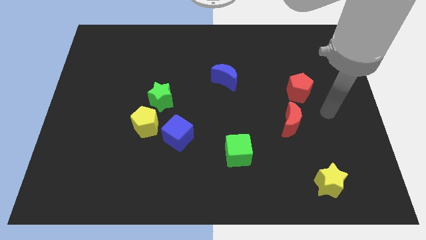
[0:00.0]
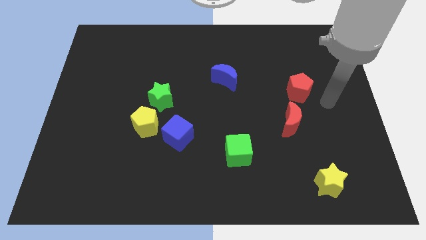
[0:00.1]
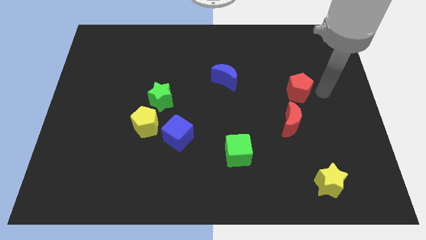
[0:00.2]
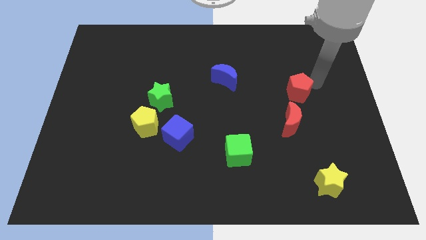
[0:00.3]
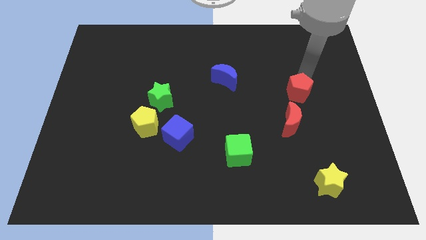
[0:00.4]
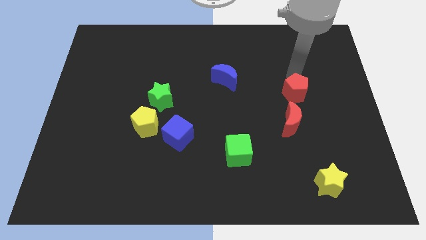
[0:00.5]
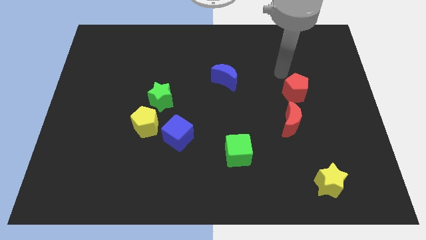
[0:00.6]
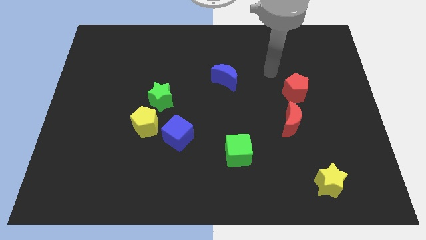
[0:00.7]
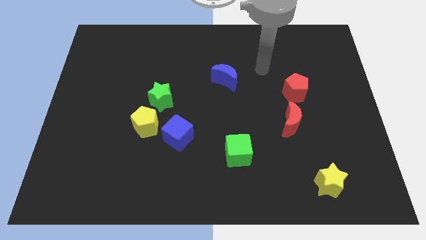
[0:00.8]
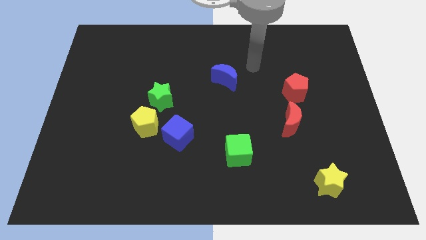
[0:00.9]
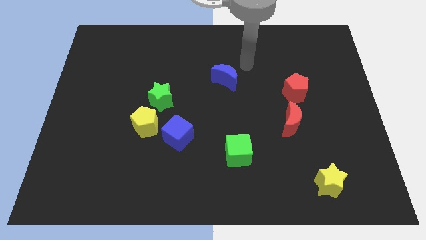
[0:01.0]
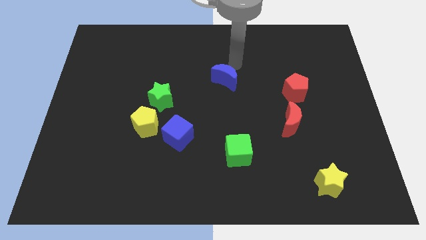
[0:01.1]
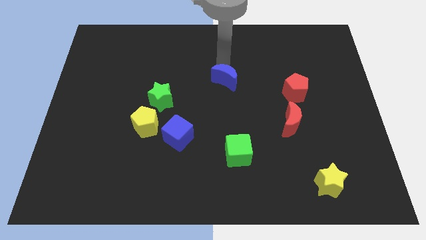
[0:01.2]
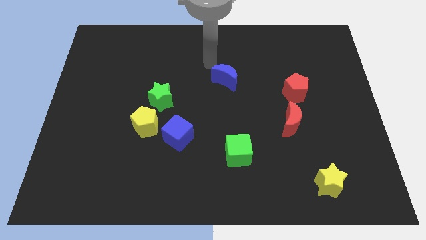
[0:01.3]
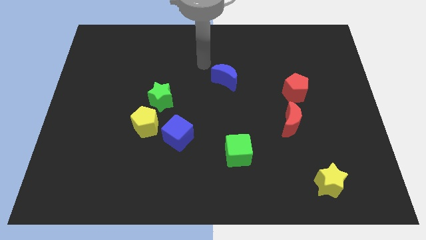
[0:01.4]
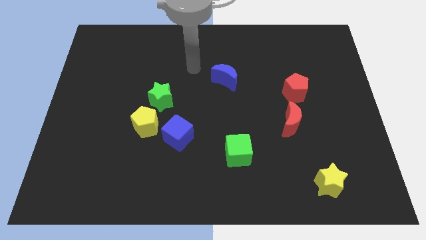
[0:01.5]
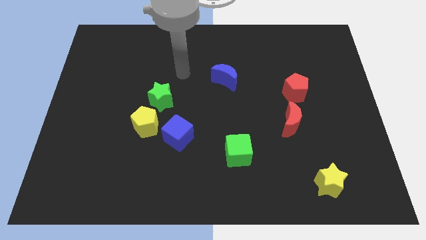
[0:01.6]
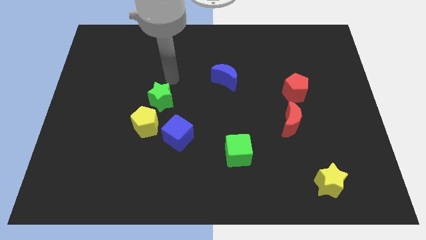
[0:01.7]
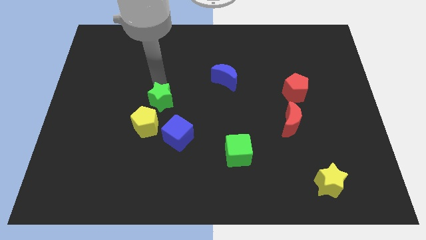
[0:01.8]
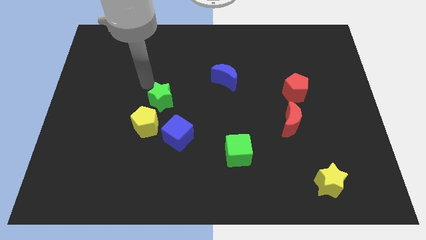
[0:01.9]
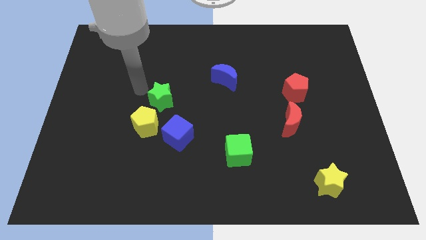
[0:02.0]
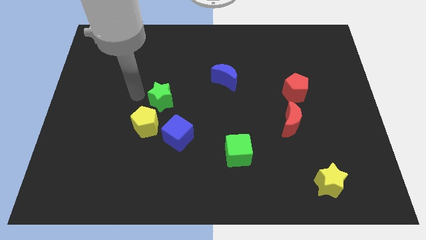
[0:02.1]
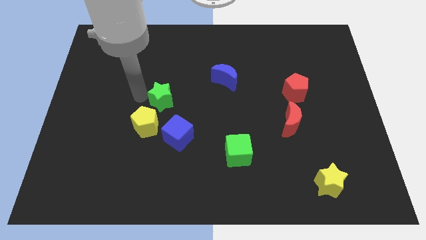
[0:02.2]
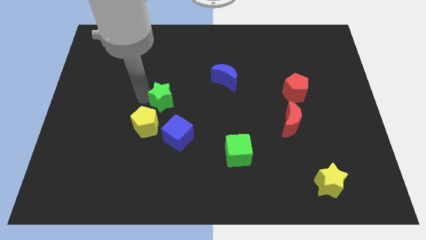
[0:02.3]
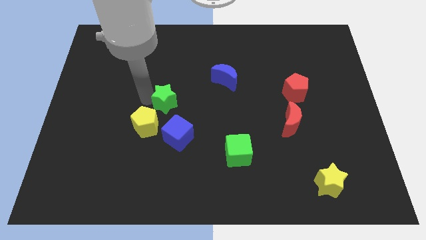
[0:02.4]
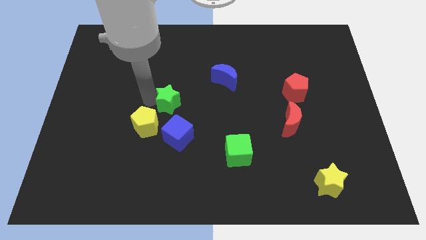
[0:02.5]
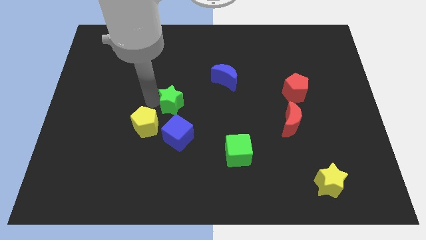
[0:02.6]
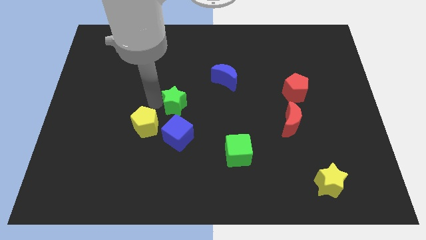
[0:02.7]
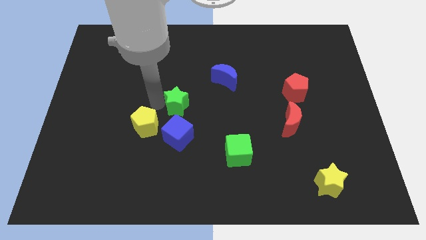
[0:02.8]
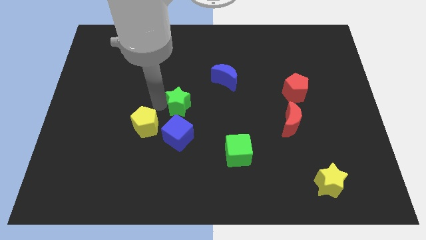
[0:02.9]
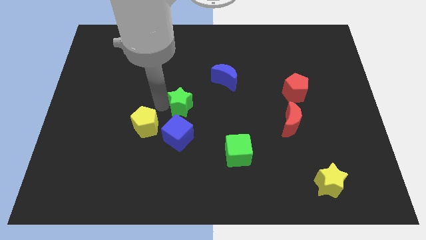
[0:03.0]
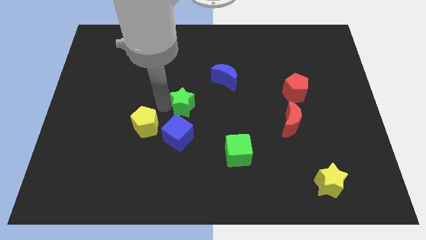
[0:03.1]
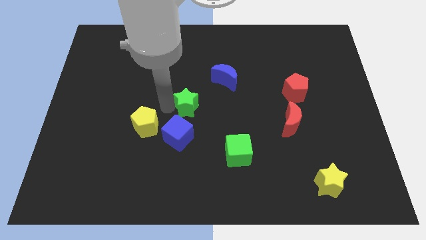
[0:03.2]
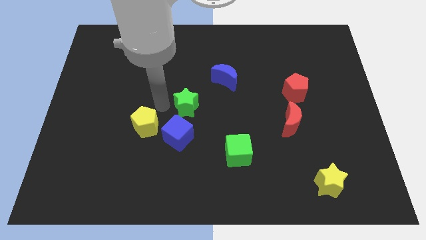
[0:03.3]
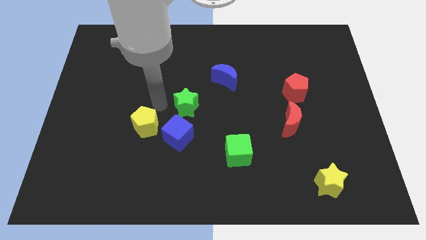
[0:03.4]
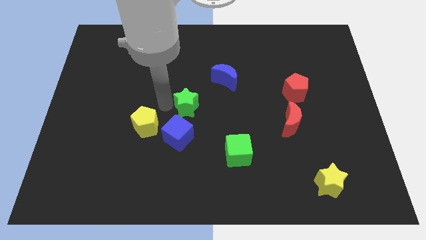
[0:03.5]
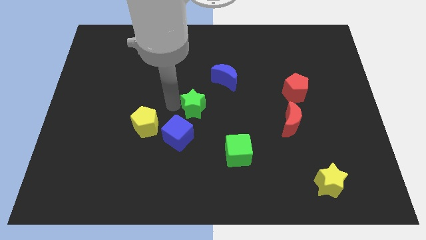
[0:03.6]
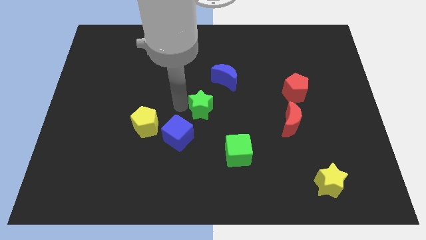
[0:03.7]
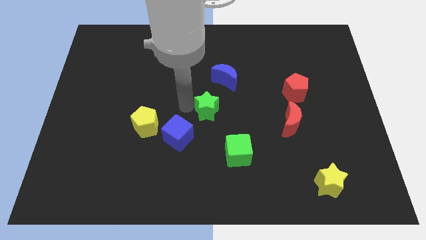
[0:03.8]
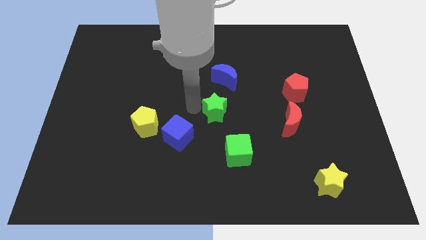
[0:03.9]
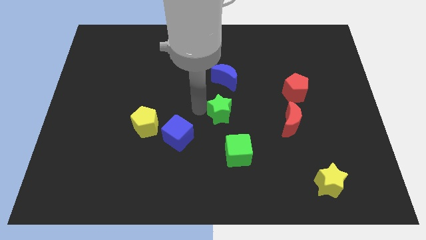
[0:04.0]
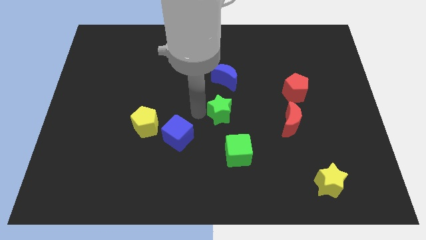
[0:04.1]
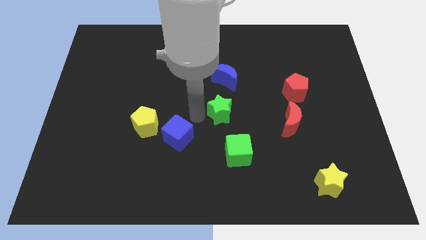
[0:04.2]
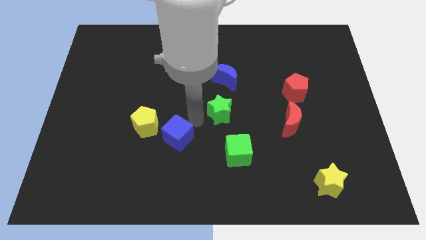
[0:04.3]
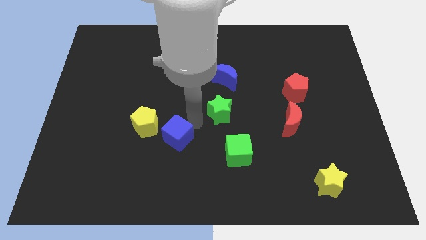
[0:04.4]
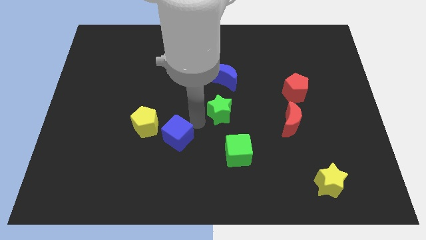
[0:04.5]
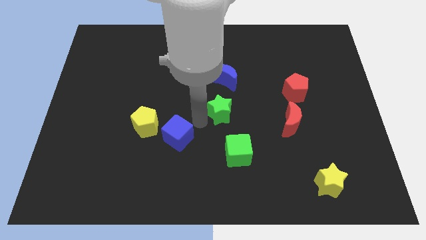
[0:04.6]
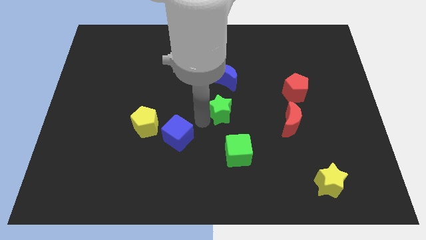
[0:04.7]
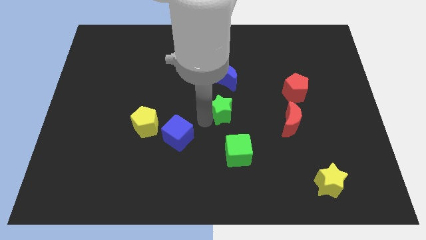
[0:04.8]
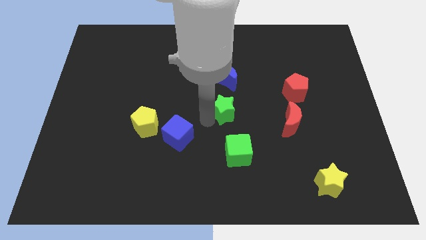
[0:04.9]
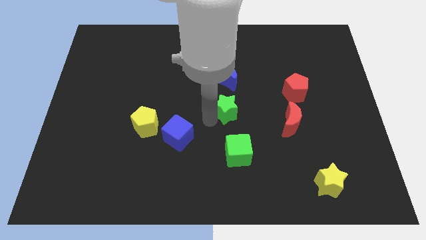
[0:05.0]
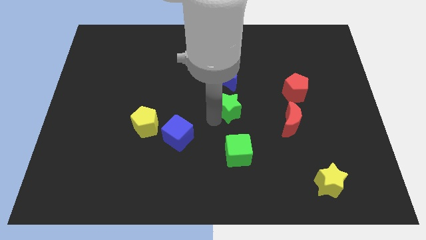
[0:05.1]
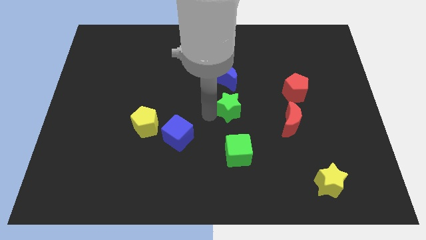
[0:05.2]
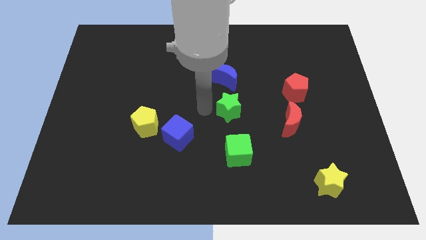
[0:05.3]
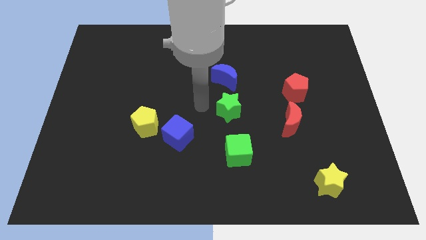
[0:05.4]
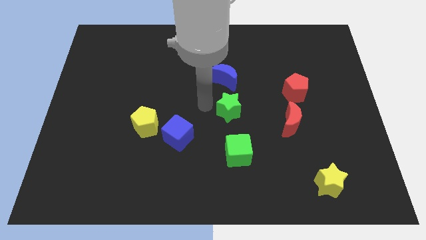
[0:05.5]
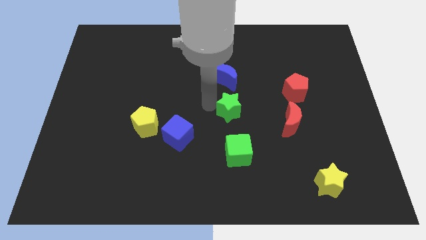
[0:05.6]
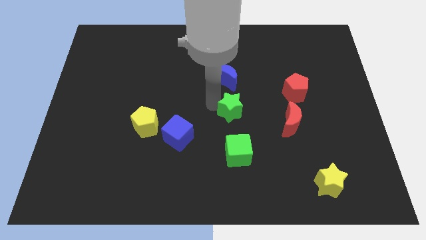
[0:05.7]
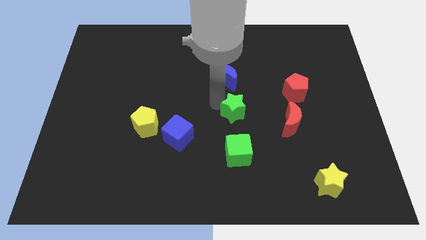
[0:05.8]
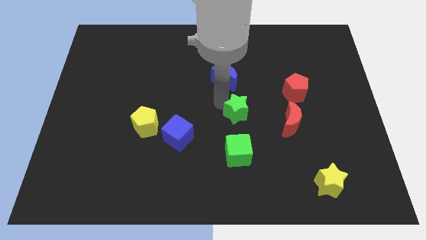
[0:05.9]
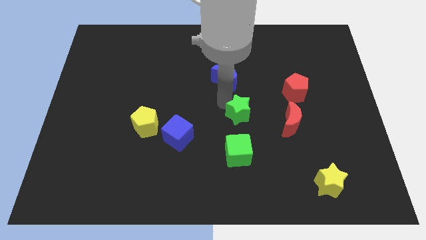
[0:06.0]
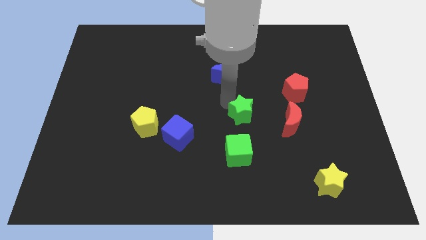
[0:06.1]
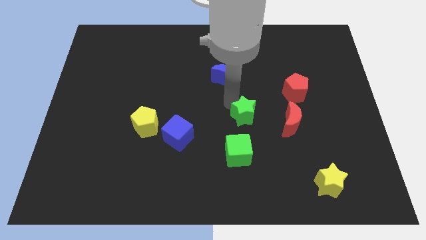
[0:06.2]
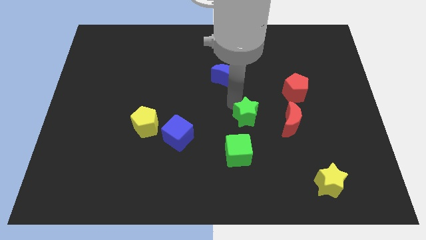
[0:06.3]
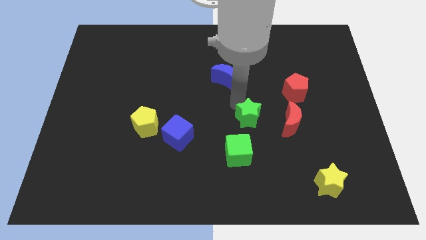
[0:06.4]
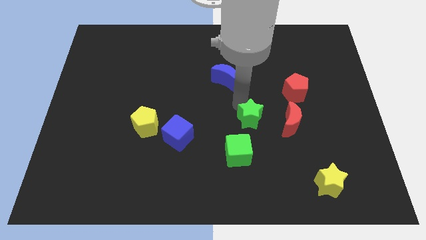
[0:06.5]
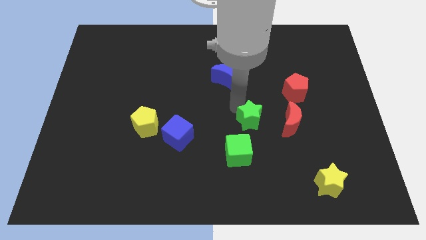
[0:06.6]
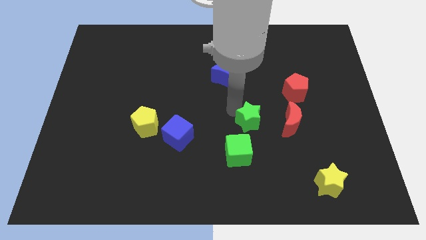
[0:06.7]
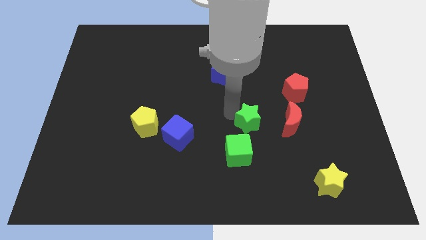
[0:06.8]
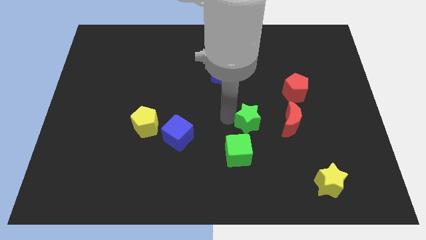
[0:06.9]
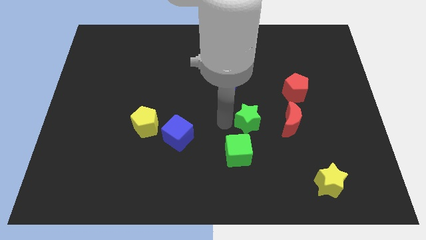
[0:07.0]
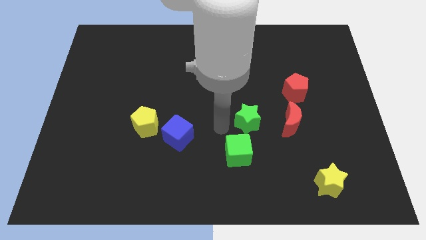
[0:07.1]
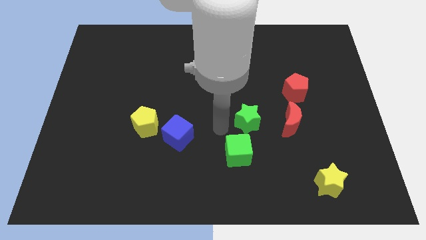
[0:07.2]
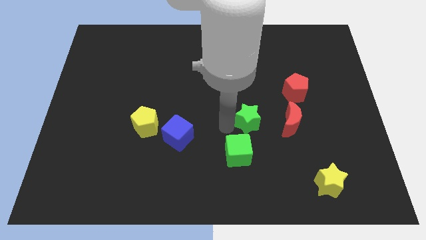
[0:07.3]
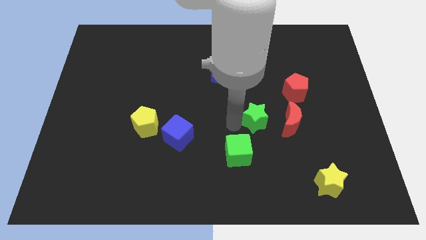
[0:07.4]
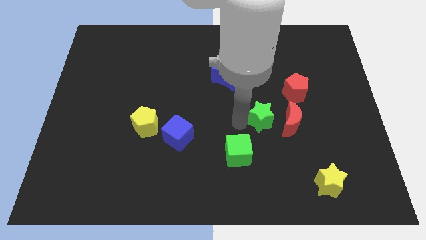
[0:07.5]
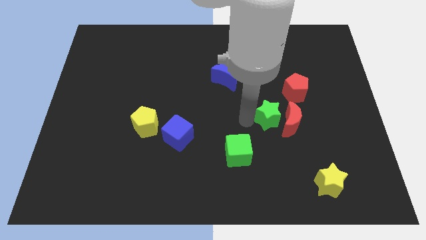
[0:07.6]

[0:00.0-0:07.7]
move the green star towards the red moon
